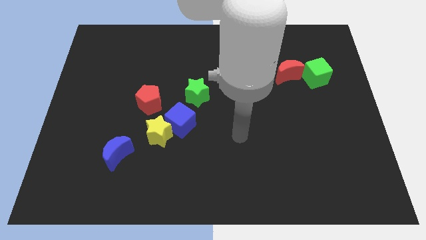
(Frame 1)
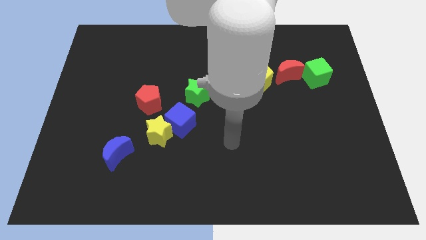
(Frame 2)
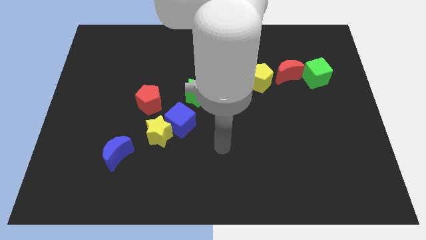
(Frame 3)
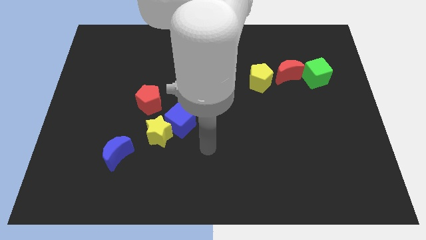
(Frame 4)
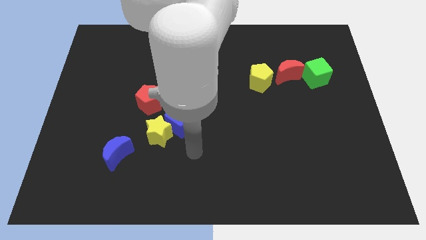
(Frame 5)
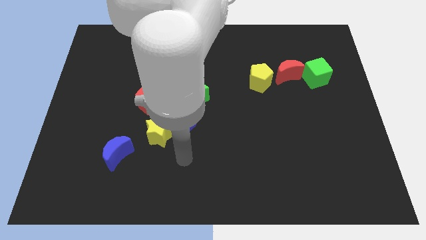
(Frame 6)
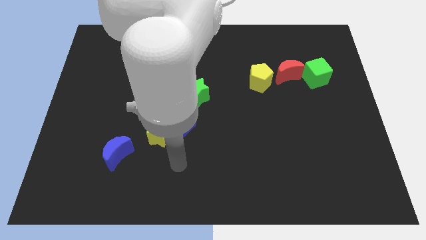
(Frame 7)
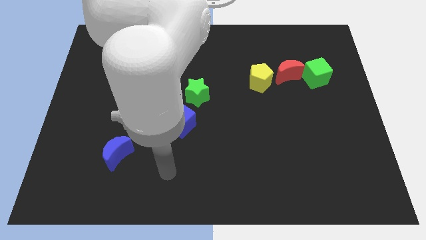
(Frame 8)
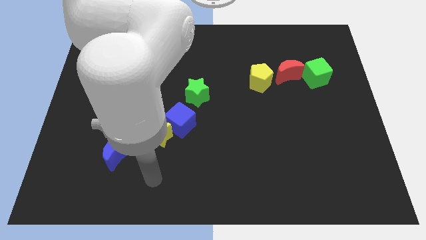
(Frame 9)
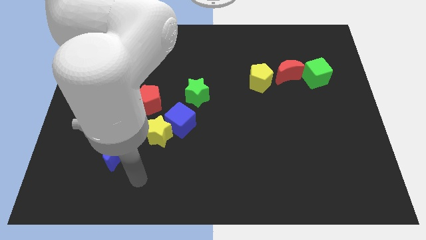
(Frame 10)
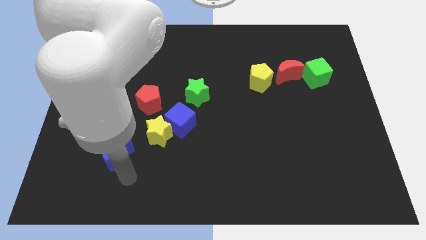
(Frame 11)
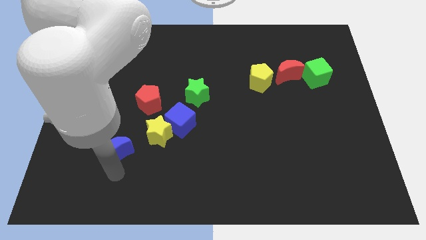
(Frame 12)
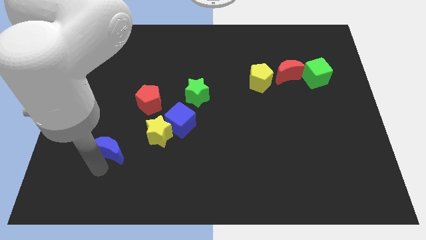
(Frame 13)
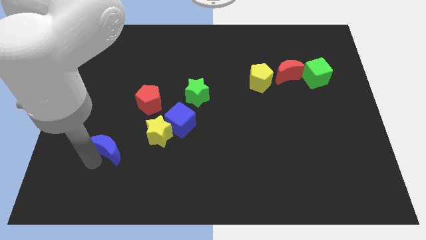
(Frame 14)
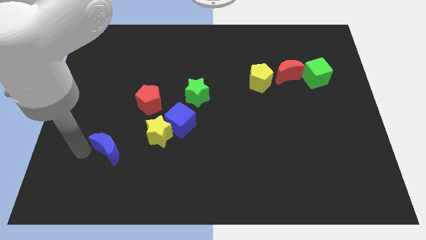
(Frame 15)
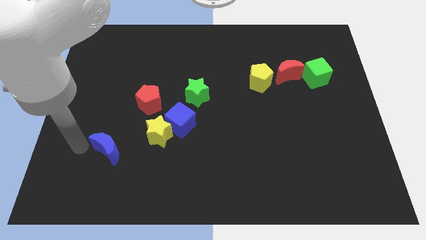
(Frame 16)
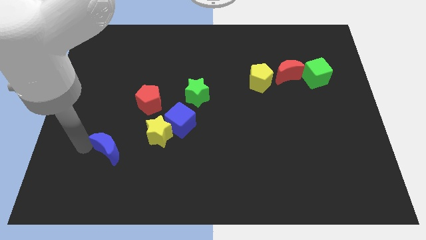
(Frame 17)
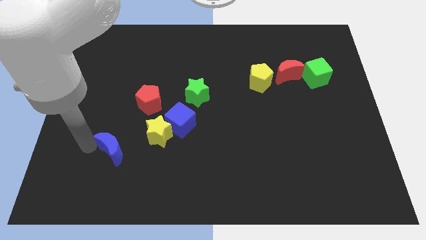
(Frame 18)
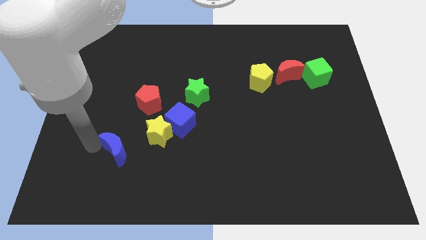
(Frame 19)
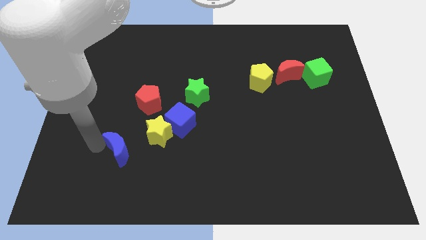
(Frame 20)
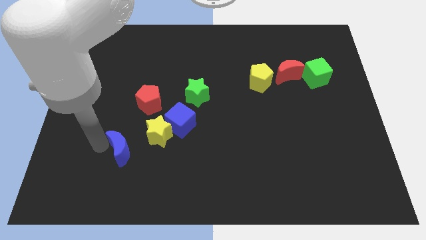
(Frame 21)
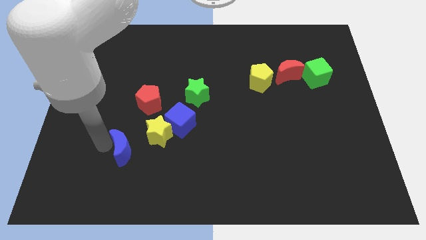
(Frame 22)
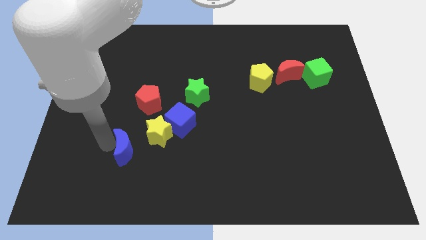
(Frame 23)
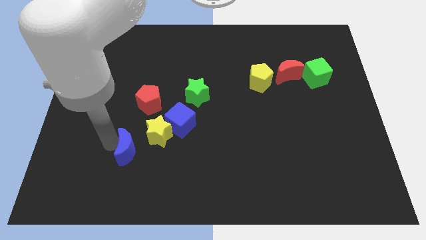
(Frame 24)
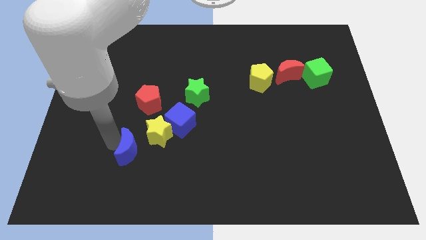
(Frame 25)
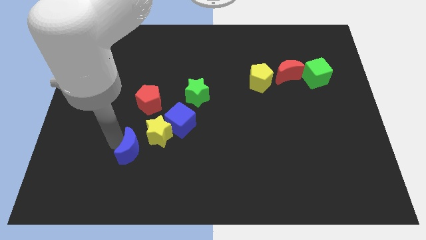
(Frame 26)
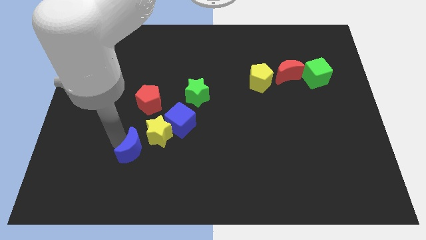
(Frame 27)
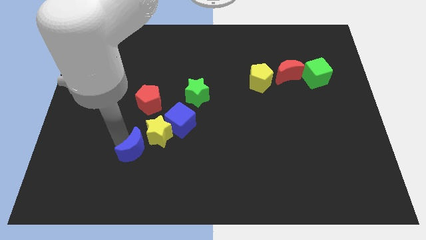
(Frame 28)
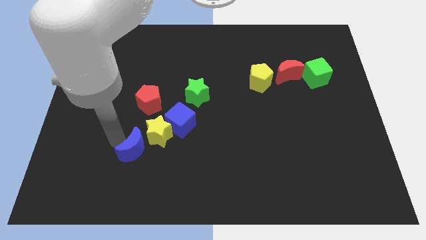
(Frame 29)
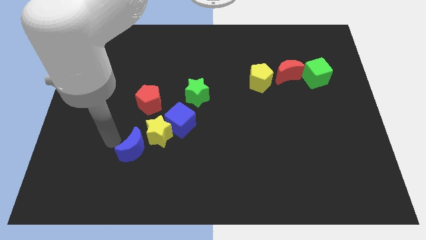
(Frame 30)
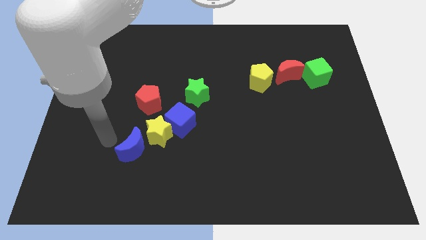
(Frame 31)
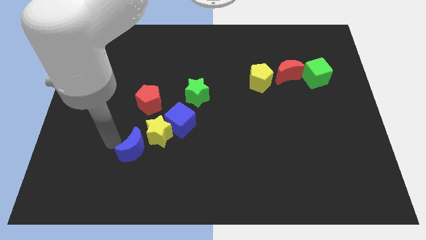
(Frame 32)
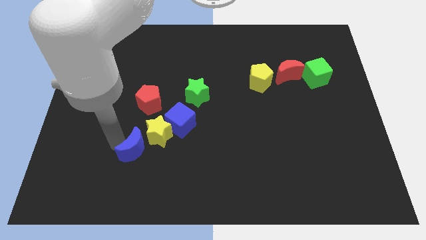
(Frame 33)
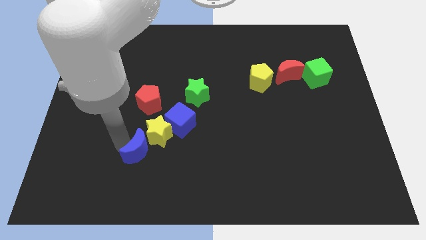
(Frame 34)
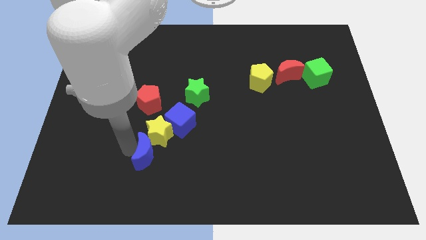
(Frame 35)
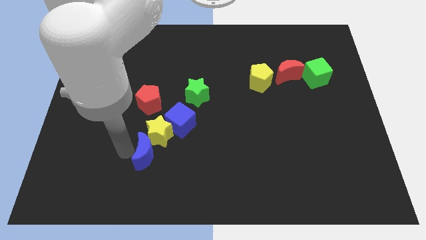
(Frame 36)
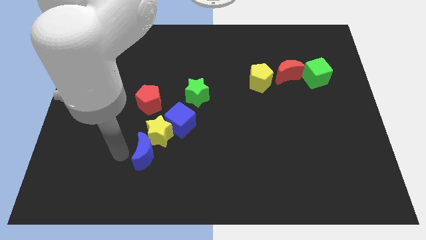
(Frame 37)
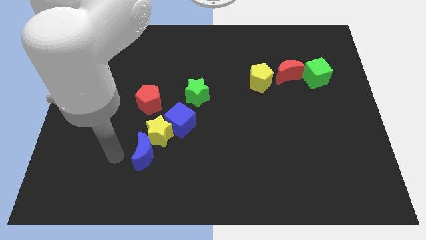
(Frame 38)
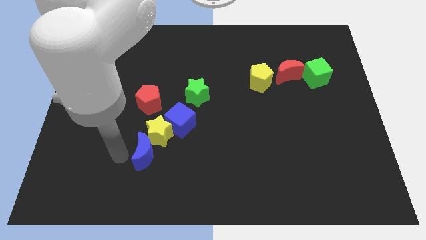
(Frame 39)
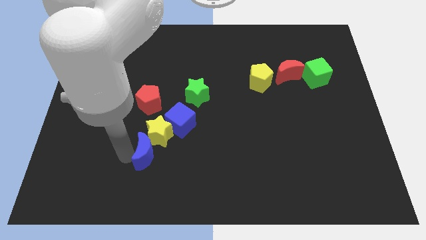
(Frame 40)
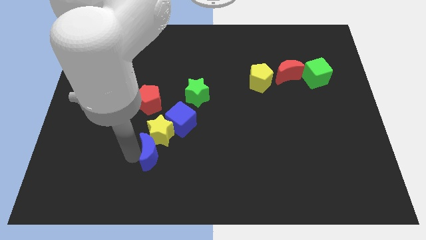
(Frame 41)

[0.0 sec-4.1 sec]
move the blue moon right slightly

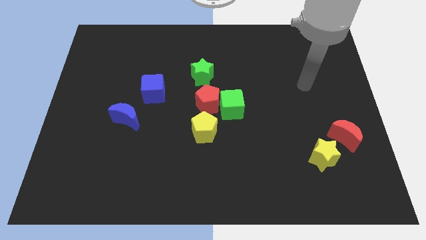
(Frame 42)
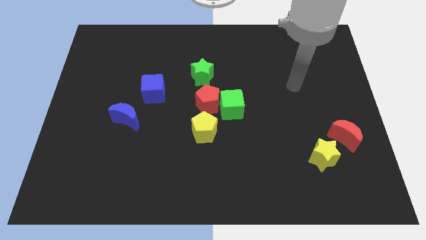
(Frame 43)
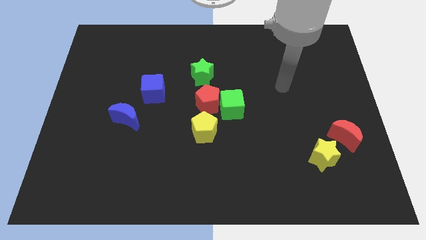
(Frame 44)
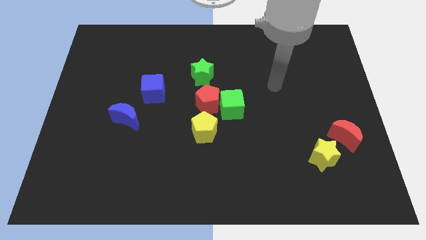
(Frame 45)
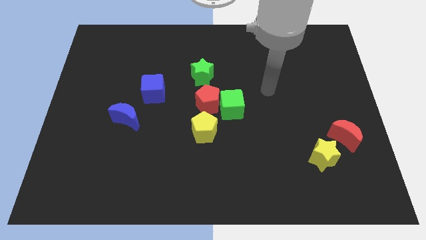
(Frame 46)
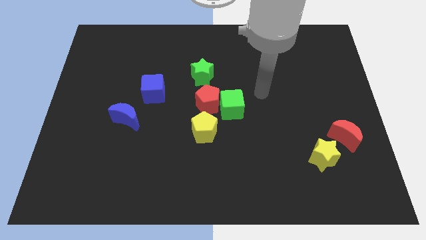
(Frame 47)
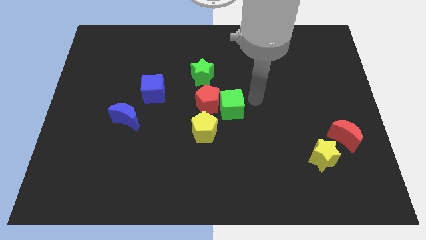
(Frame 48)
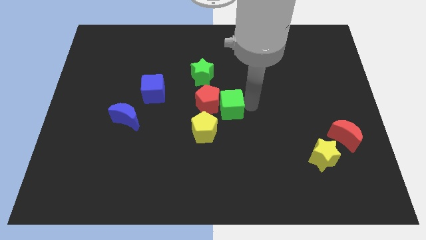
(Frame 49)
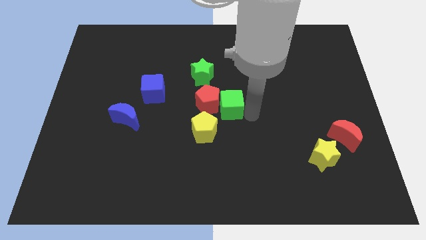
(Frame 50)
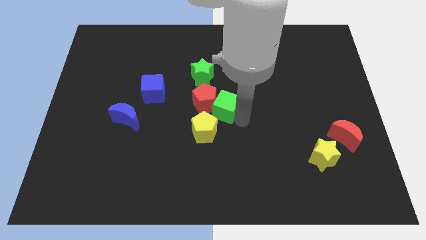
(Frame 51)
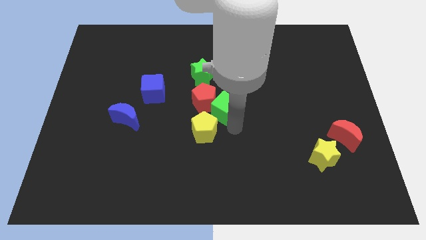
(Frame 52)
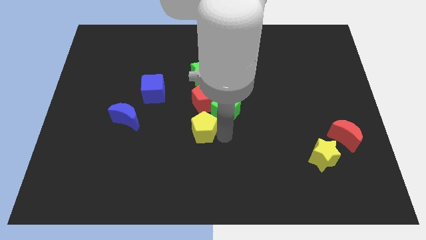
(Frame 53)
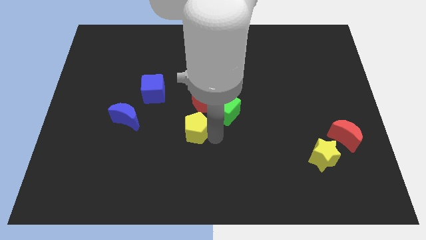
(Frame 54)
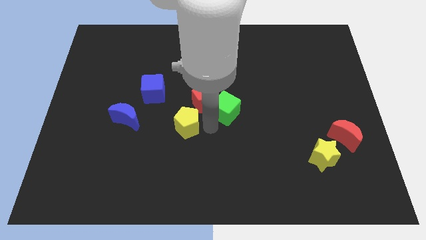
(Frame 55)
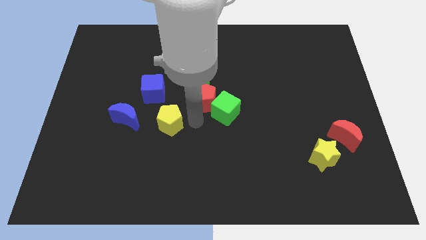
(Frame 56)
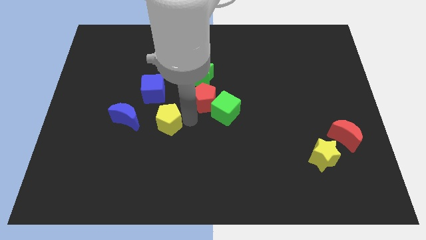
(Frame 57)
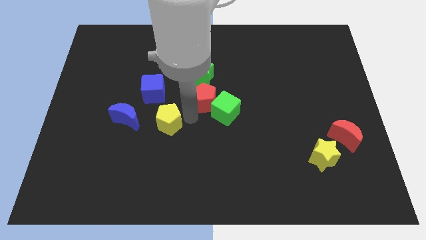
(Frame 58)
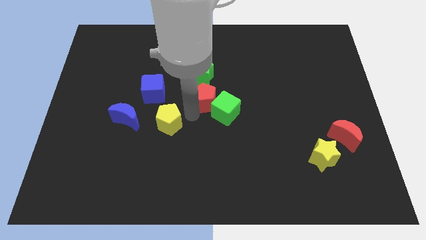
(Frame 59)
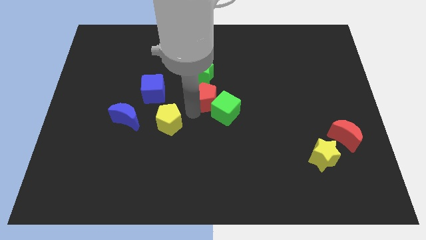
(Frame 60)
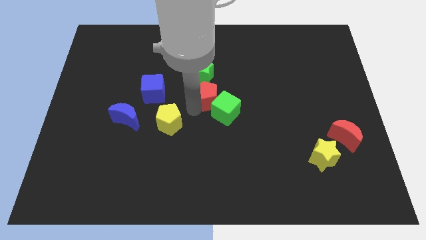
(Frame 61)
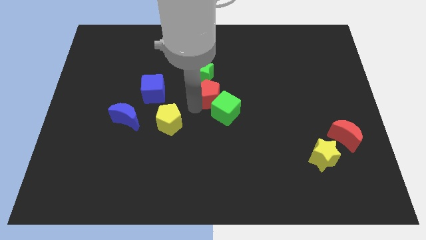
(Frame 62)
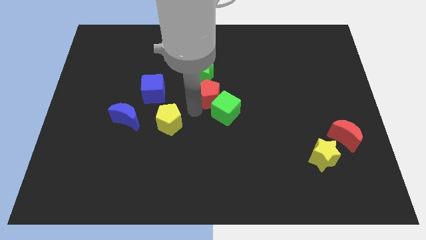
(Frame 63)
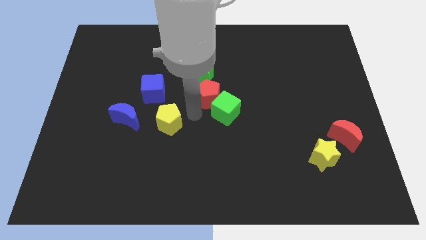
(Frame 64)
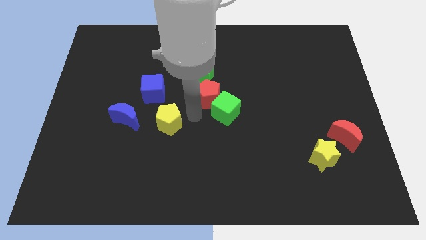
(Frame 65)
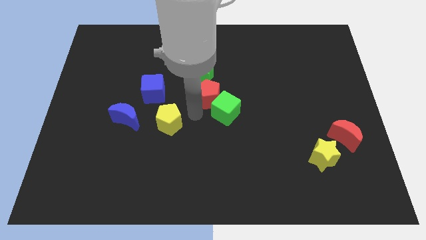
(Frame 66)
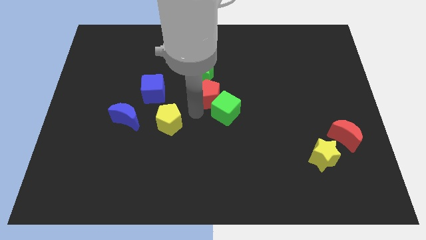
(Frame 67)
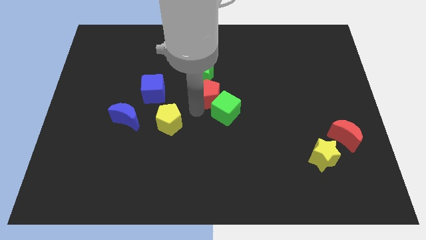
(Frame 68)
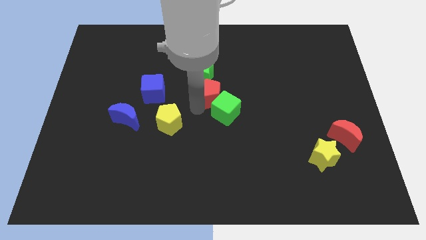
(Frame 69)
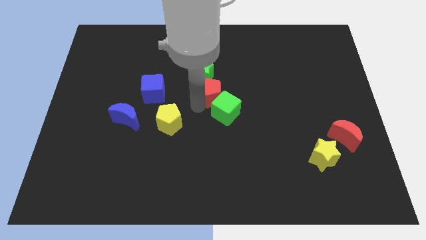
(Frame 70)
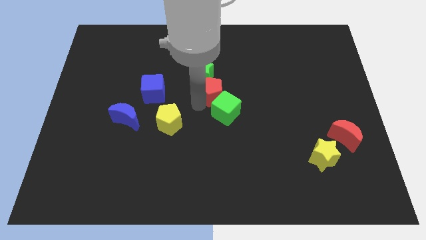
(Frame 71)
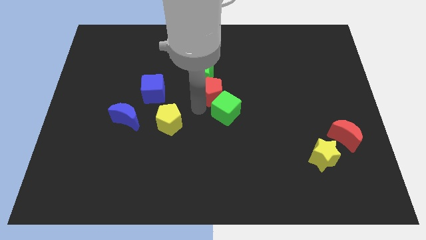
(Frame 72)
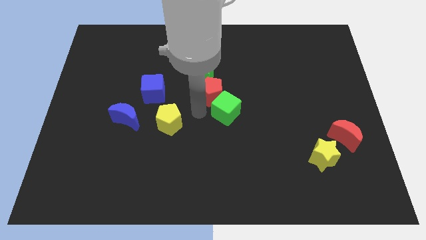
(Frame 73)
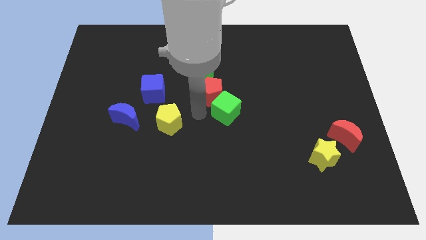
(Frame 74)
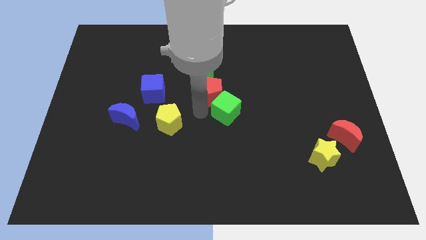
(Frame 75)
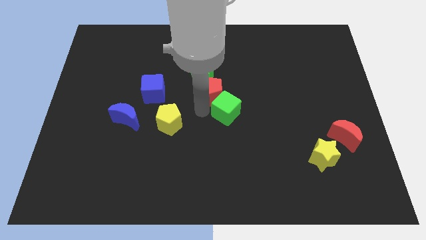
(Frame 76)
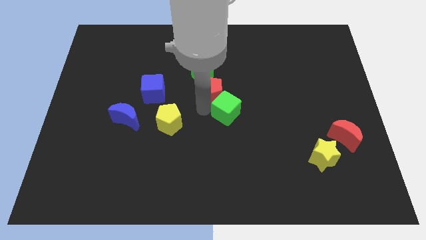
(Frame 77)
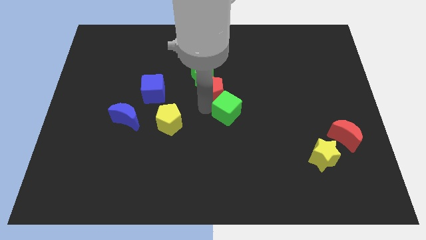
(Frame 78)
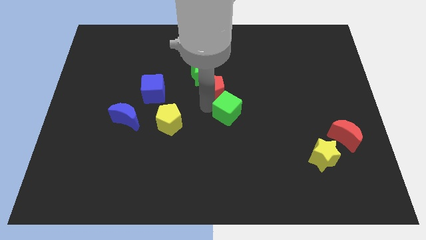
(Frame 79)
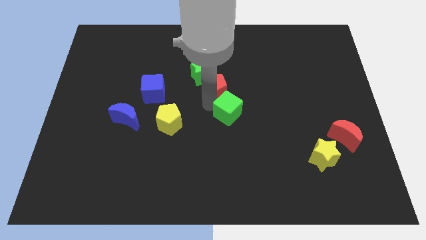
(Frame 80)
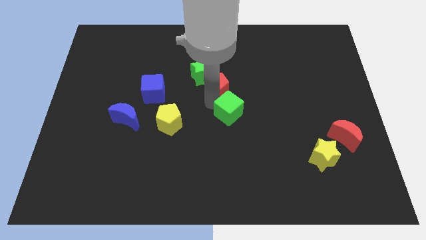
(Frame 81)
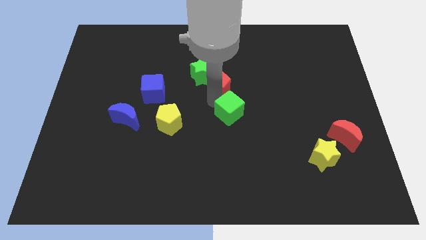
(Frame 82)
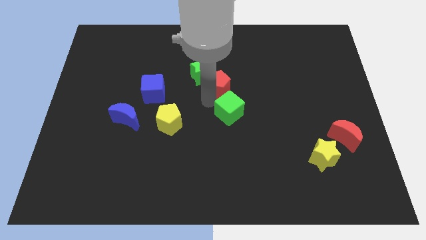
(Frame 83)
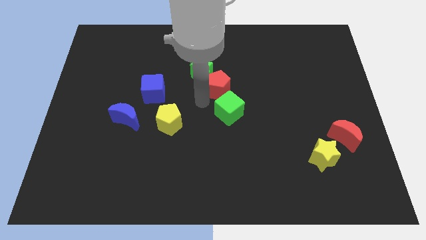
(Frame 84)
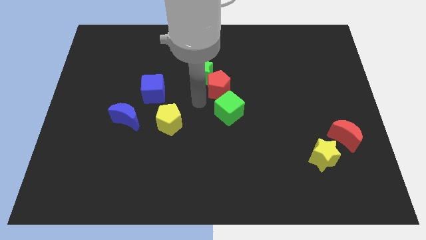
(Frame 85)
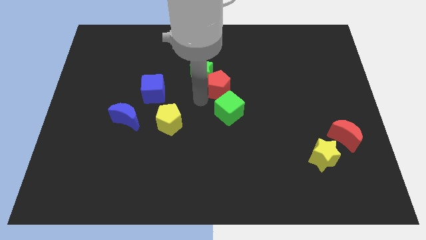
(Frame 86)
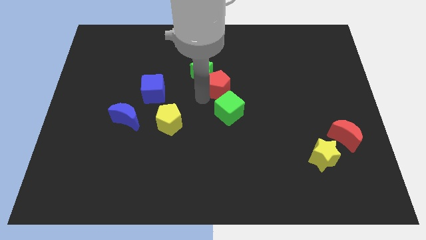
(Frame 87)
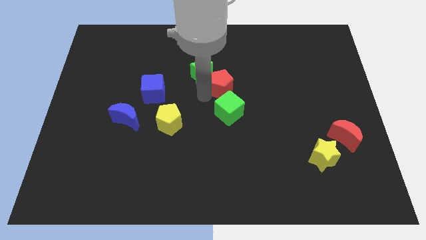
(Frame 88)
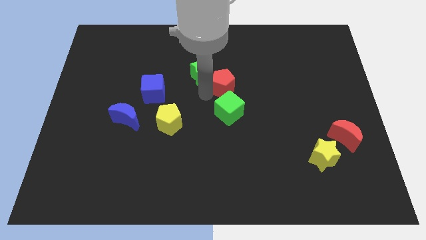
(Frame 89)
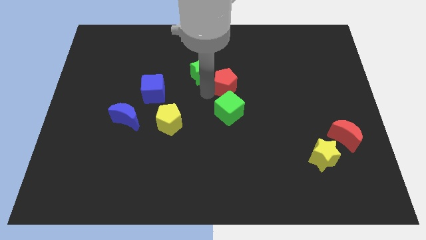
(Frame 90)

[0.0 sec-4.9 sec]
slide the red pentagon a little bit upwards and to the right diagonally
